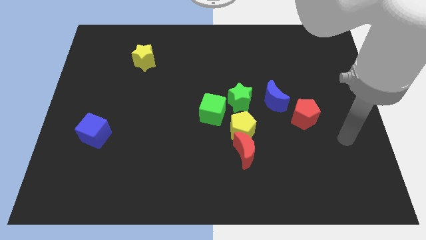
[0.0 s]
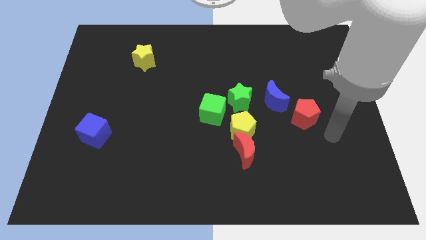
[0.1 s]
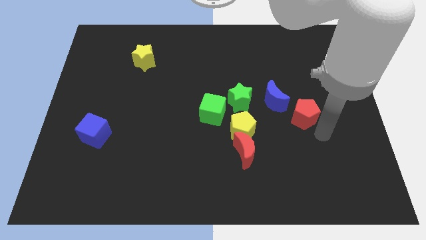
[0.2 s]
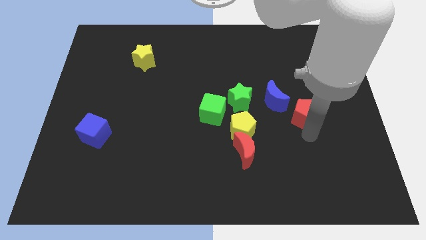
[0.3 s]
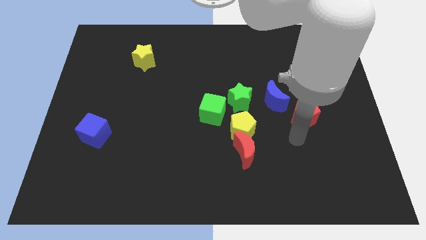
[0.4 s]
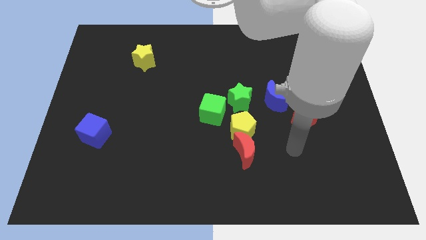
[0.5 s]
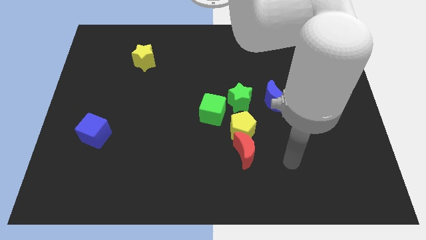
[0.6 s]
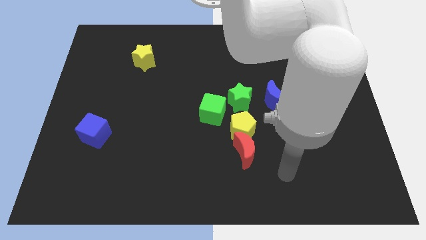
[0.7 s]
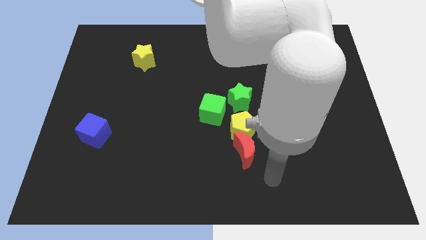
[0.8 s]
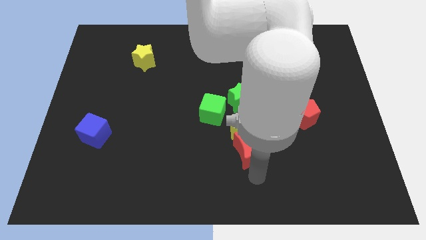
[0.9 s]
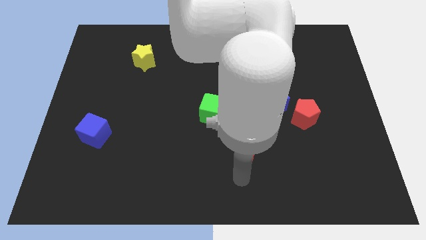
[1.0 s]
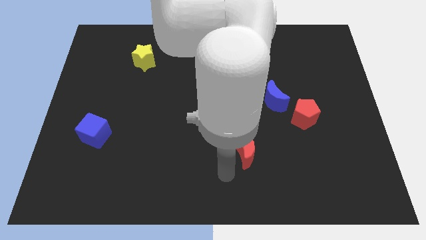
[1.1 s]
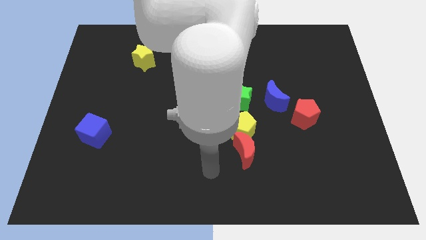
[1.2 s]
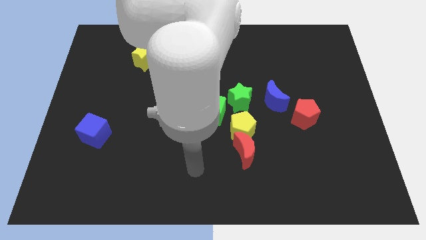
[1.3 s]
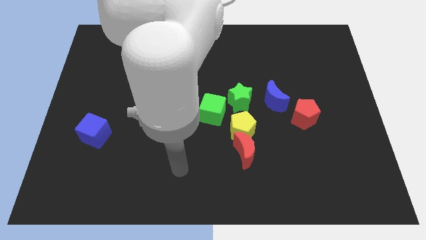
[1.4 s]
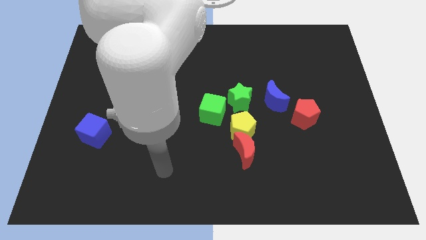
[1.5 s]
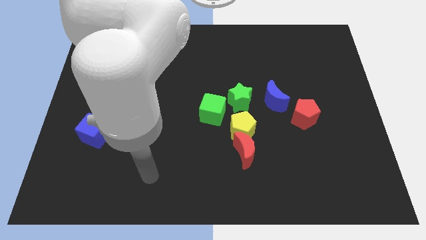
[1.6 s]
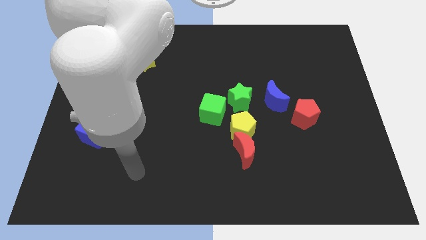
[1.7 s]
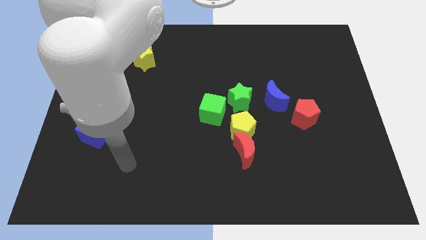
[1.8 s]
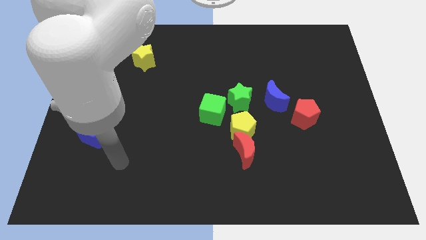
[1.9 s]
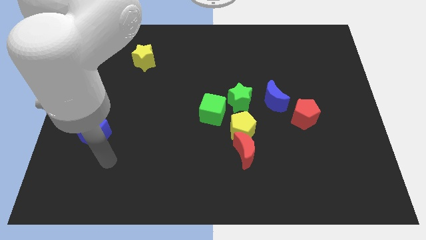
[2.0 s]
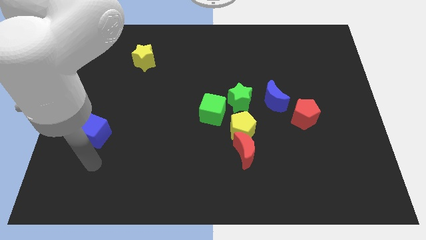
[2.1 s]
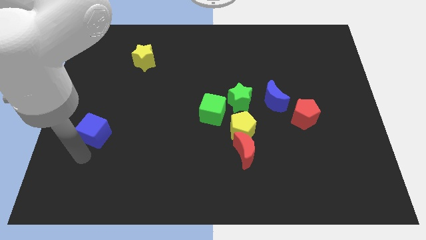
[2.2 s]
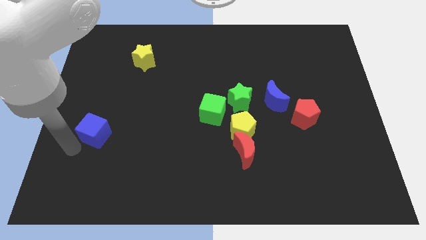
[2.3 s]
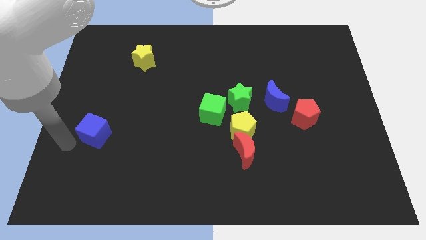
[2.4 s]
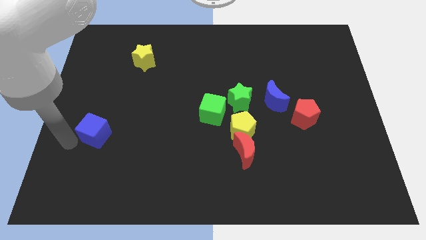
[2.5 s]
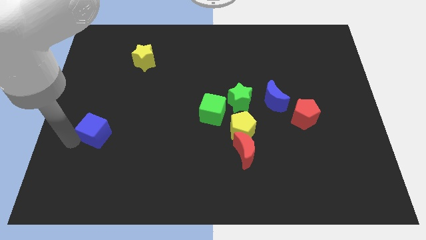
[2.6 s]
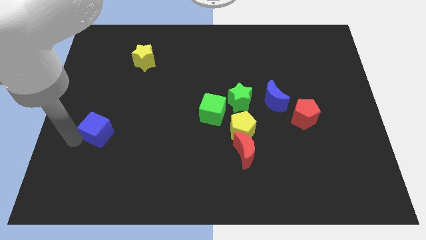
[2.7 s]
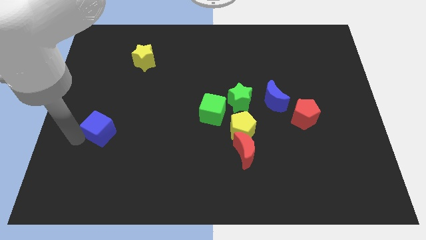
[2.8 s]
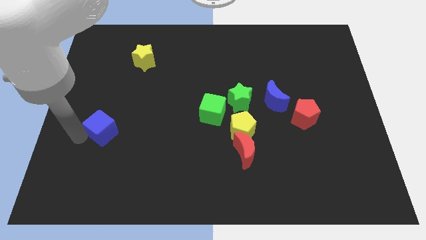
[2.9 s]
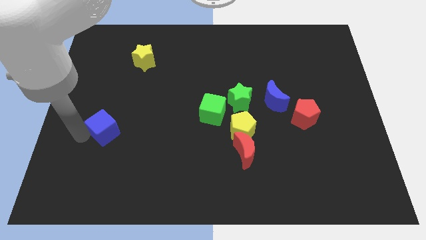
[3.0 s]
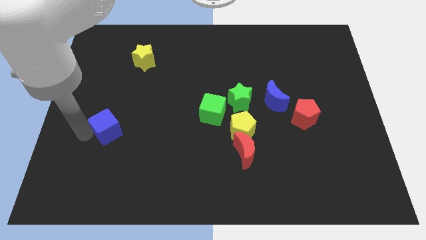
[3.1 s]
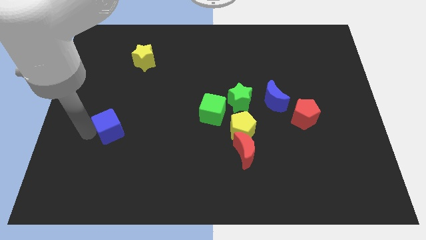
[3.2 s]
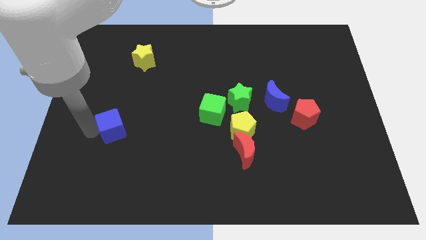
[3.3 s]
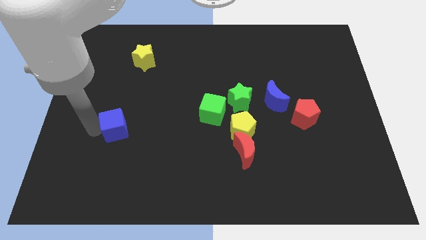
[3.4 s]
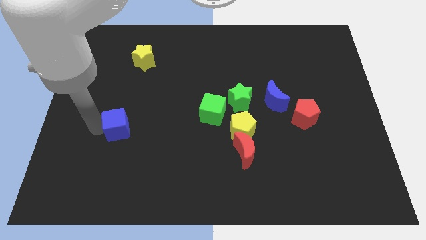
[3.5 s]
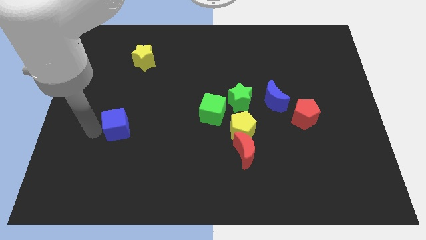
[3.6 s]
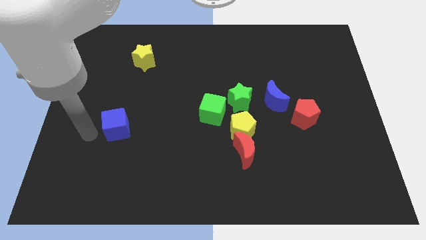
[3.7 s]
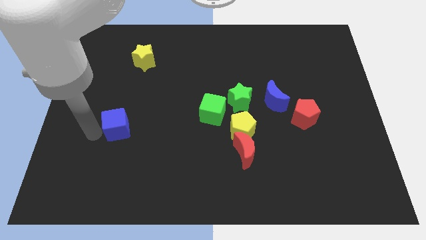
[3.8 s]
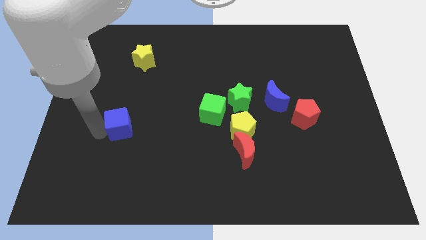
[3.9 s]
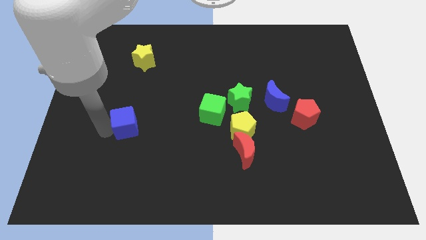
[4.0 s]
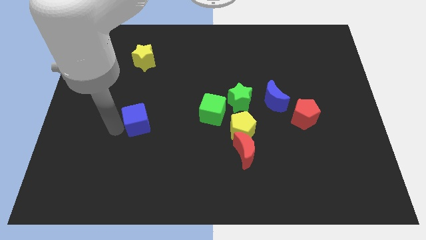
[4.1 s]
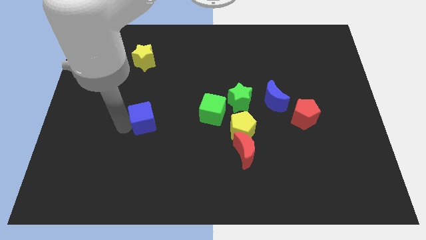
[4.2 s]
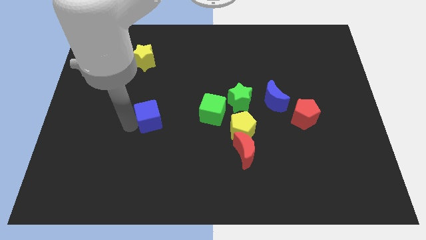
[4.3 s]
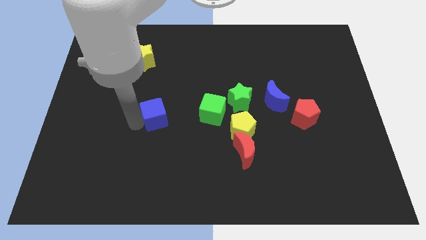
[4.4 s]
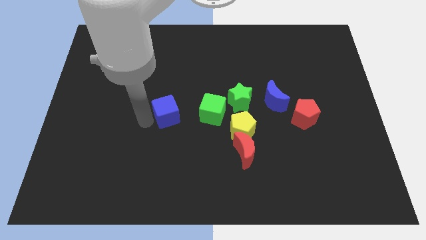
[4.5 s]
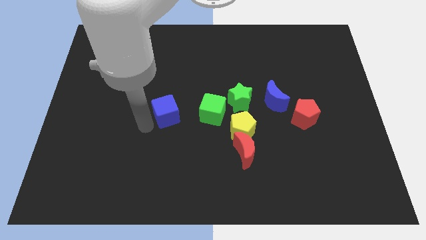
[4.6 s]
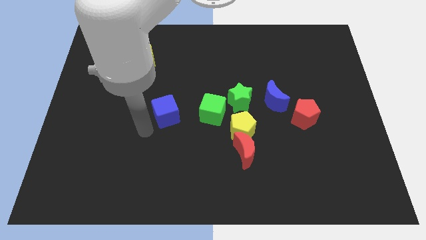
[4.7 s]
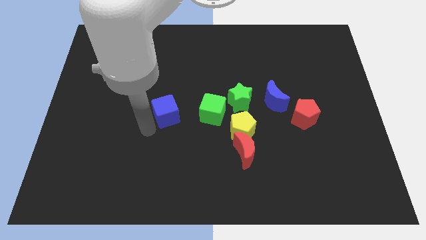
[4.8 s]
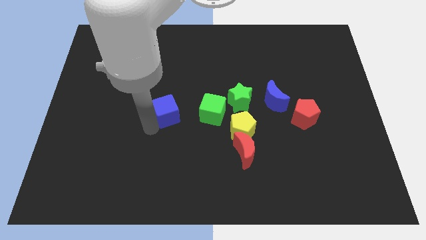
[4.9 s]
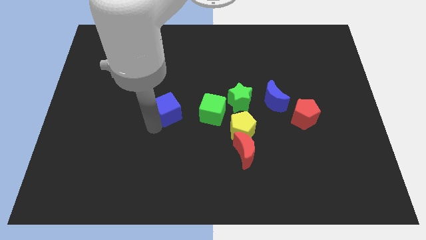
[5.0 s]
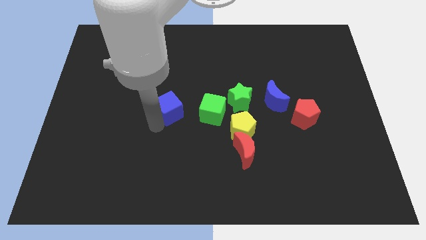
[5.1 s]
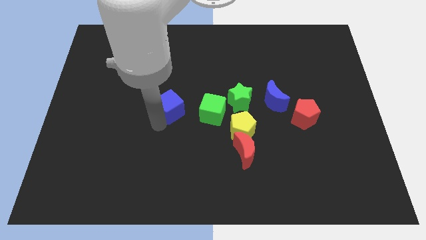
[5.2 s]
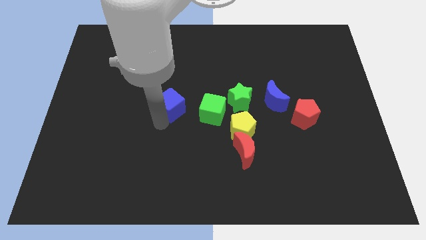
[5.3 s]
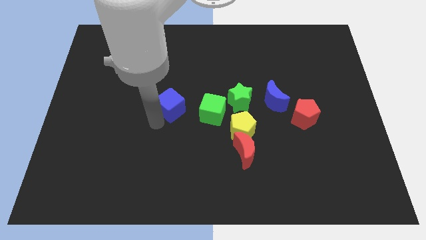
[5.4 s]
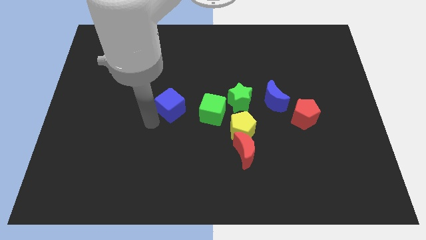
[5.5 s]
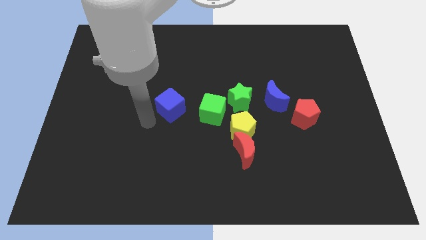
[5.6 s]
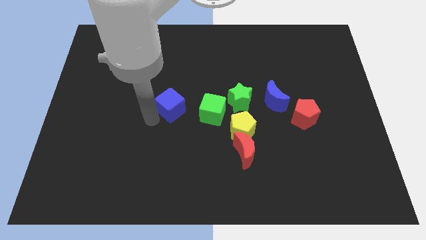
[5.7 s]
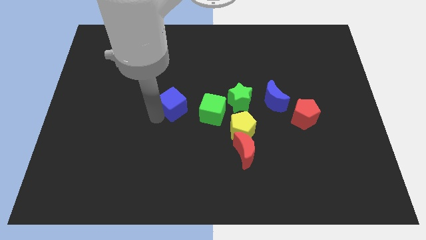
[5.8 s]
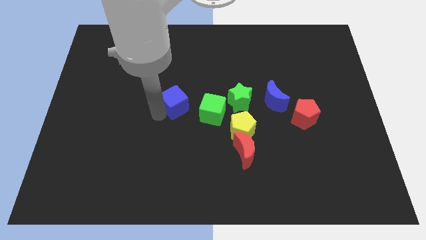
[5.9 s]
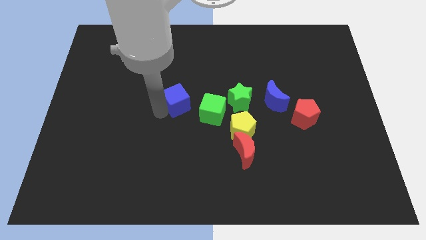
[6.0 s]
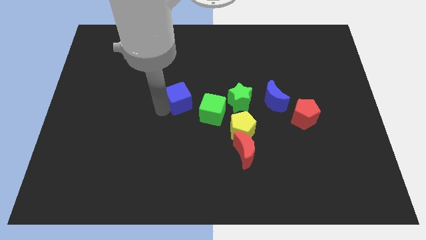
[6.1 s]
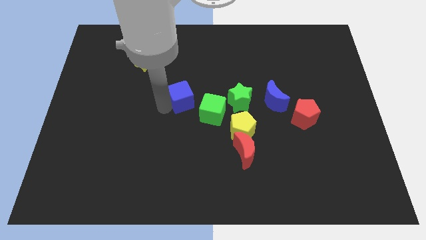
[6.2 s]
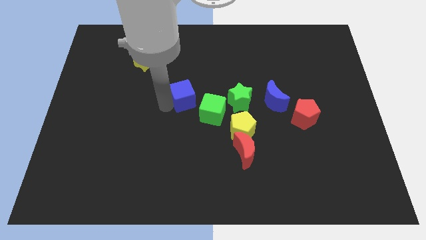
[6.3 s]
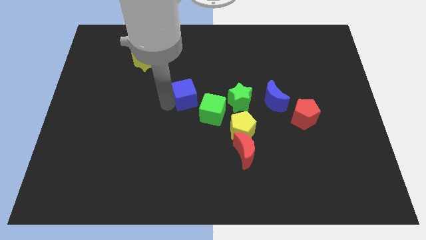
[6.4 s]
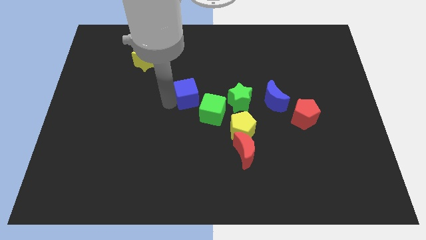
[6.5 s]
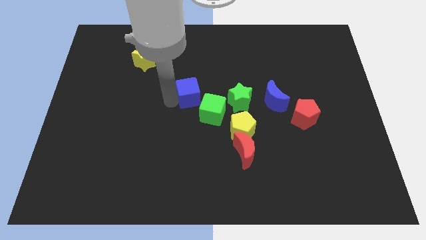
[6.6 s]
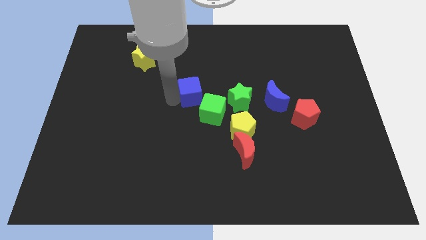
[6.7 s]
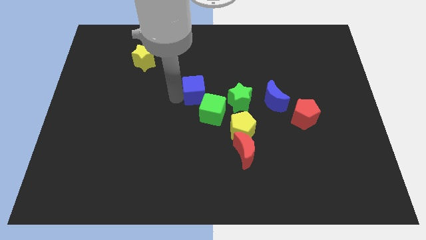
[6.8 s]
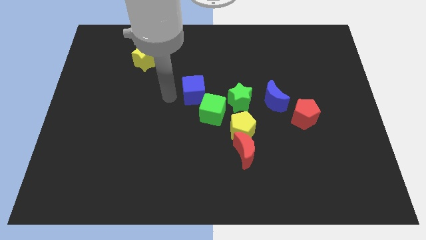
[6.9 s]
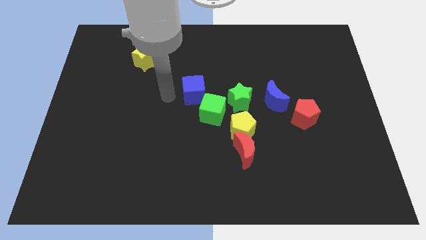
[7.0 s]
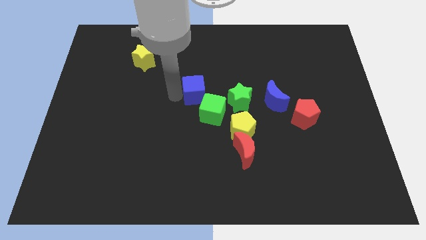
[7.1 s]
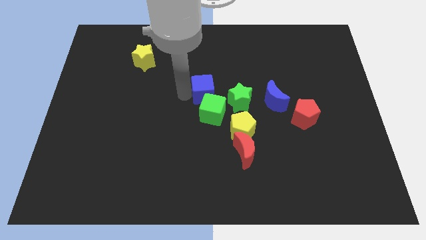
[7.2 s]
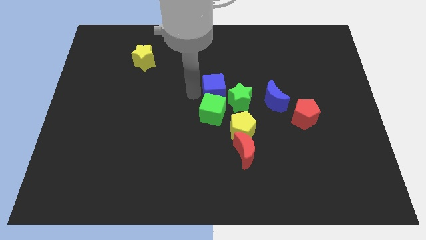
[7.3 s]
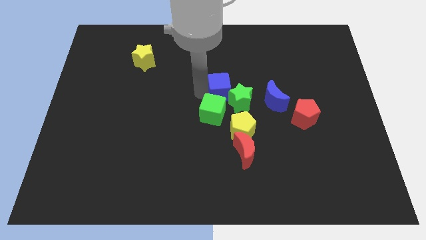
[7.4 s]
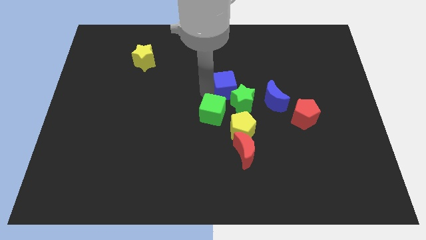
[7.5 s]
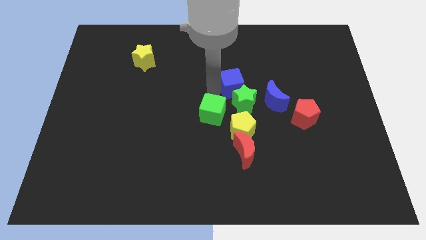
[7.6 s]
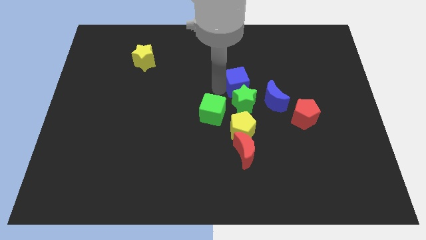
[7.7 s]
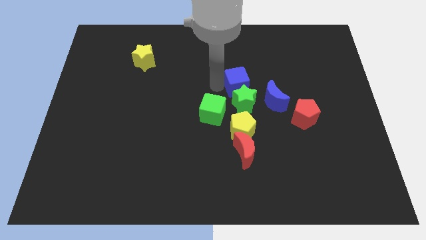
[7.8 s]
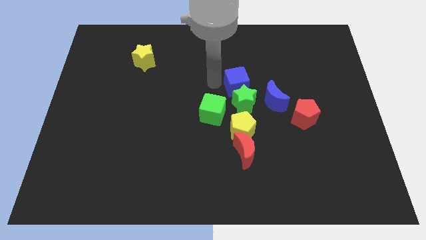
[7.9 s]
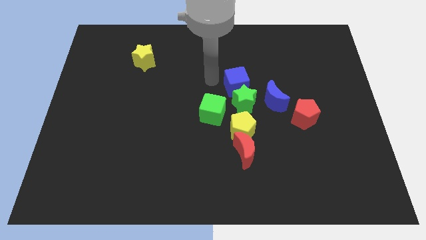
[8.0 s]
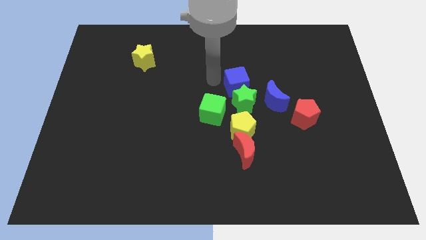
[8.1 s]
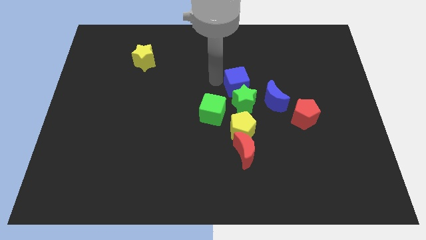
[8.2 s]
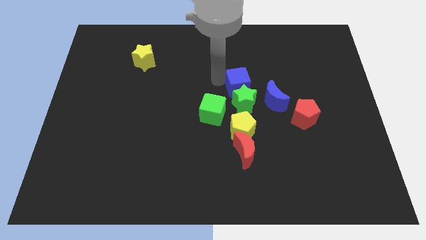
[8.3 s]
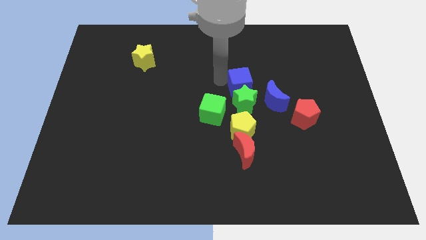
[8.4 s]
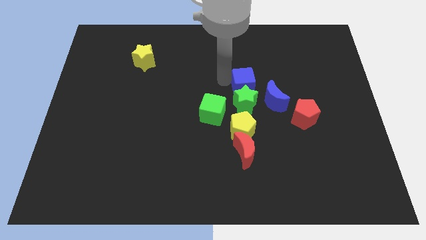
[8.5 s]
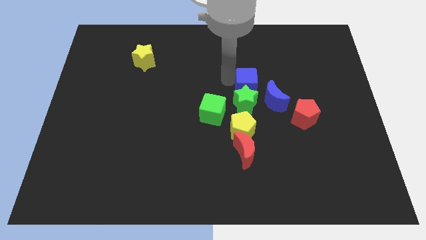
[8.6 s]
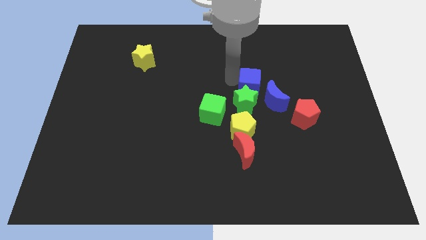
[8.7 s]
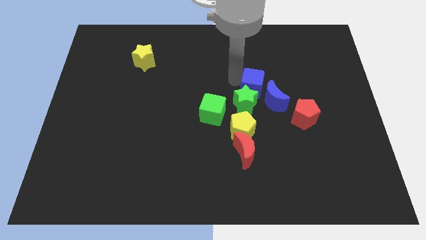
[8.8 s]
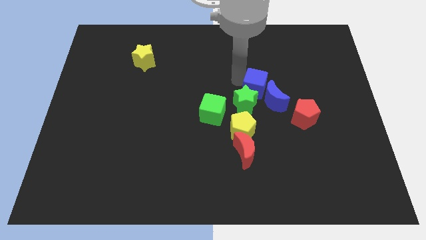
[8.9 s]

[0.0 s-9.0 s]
move the blue cube next to the blue moon
